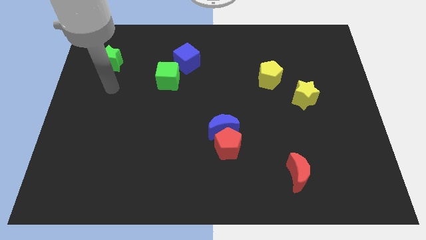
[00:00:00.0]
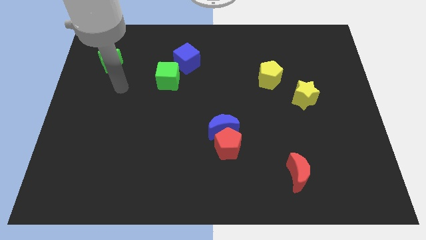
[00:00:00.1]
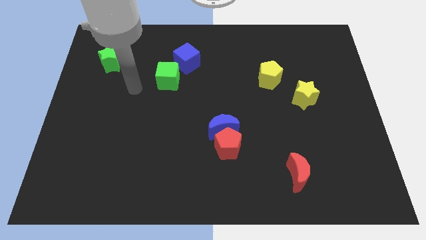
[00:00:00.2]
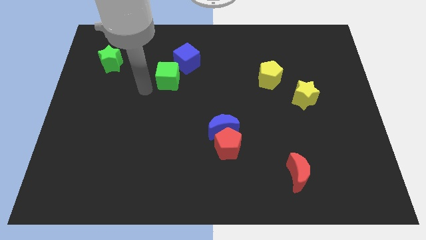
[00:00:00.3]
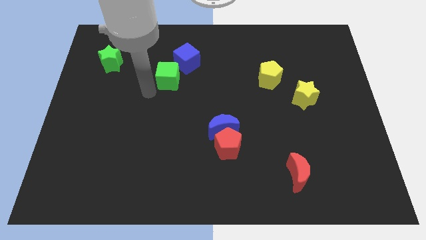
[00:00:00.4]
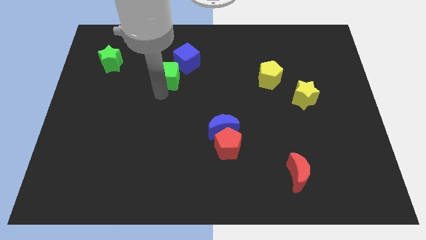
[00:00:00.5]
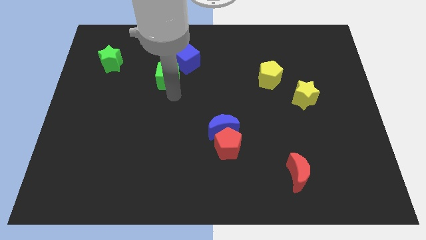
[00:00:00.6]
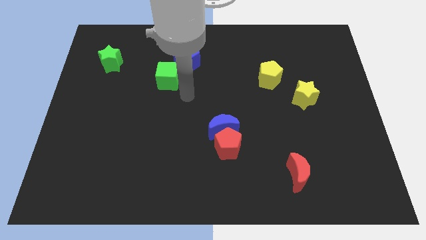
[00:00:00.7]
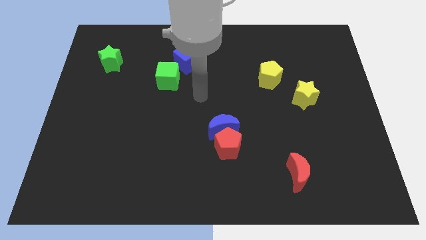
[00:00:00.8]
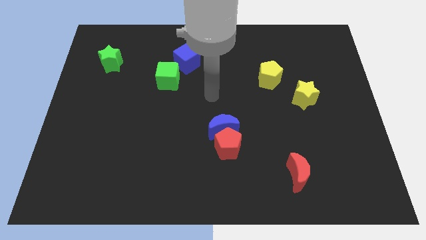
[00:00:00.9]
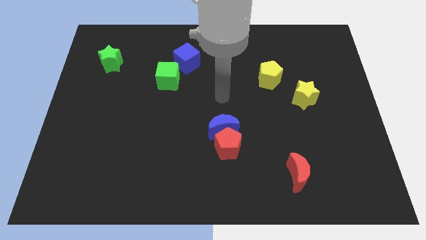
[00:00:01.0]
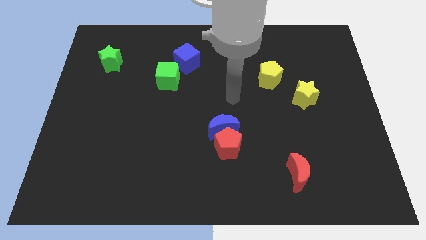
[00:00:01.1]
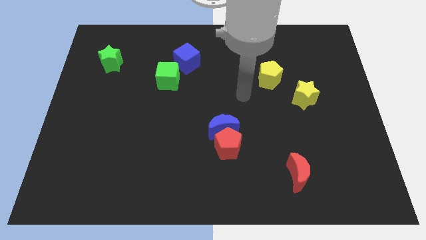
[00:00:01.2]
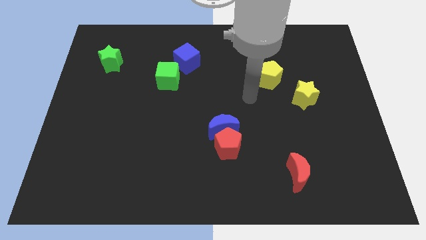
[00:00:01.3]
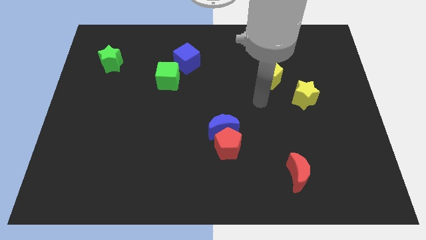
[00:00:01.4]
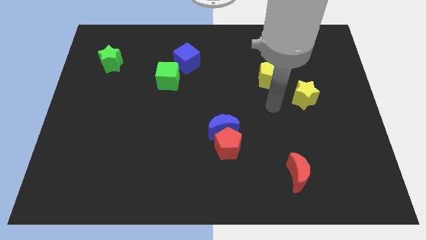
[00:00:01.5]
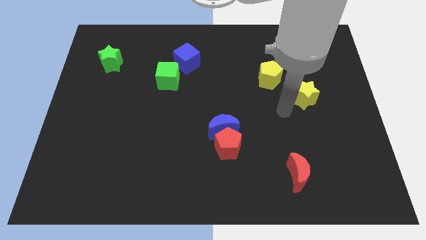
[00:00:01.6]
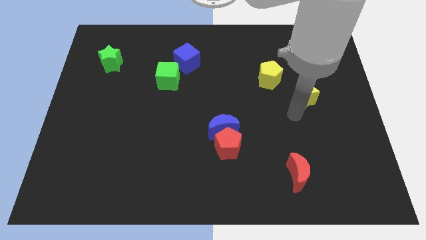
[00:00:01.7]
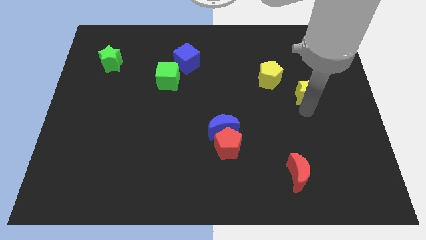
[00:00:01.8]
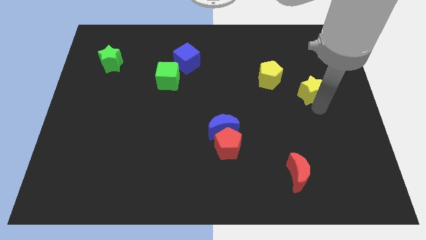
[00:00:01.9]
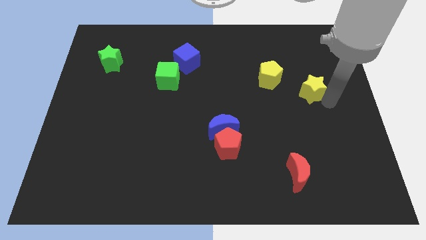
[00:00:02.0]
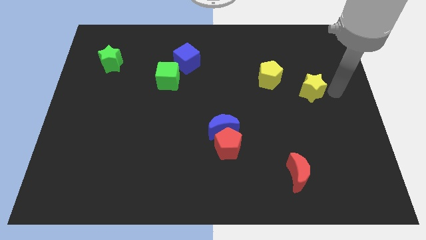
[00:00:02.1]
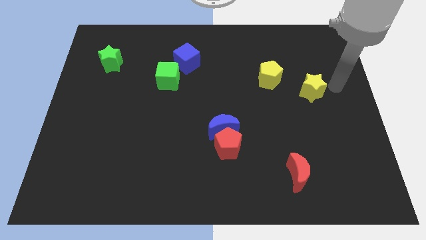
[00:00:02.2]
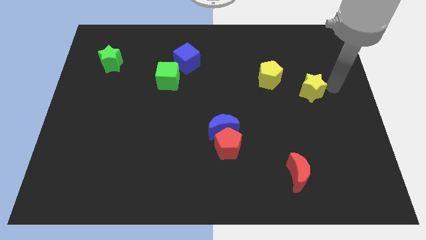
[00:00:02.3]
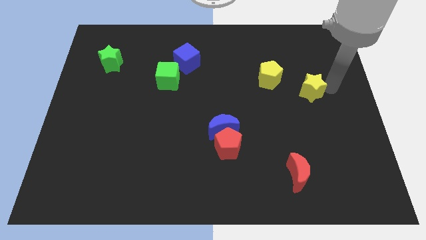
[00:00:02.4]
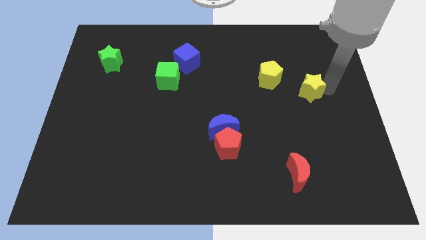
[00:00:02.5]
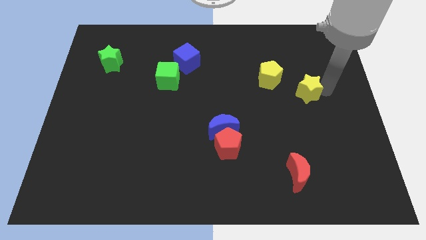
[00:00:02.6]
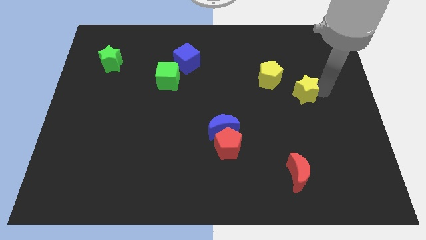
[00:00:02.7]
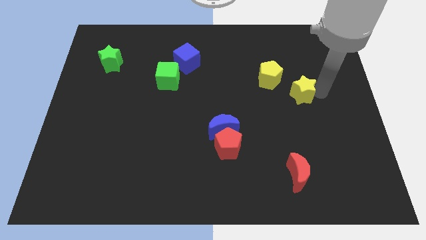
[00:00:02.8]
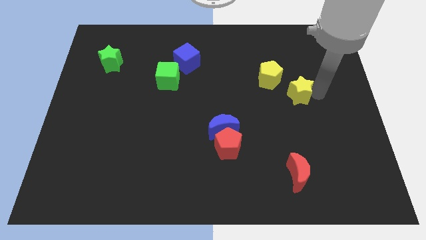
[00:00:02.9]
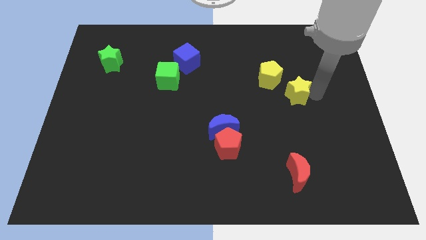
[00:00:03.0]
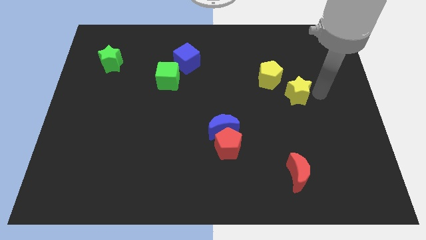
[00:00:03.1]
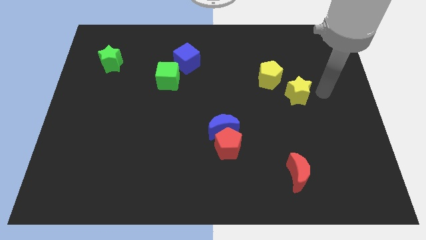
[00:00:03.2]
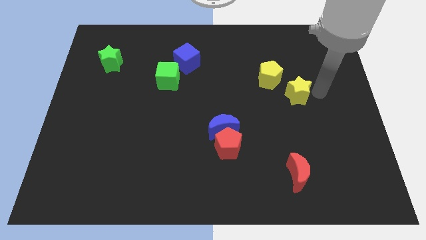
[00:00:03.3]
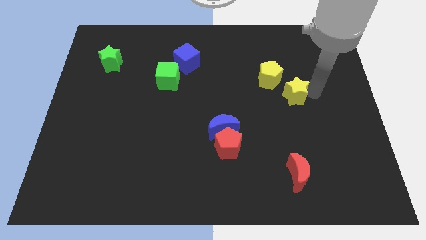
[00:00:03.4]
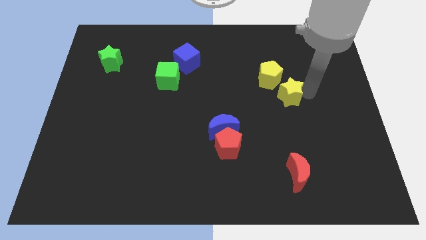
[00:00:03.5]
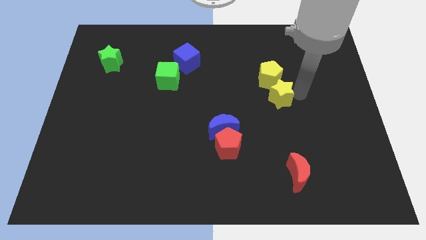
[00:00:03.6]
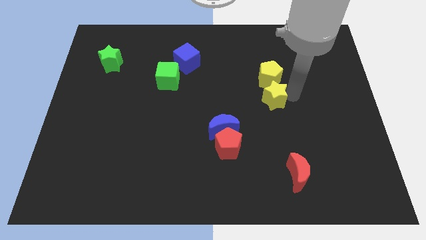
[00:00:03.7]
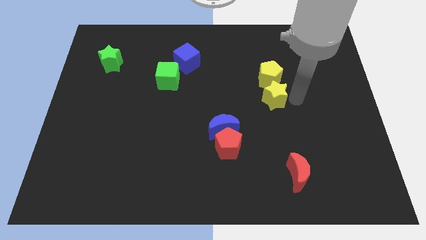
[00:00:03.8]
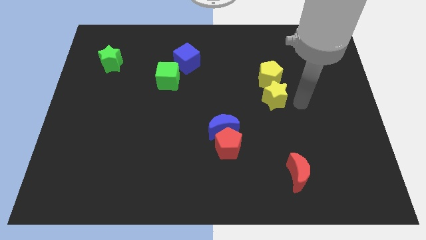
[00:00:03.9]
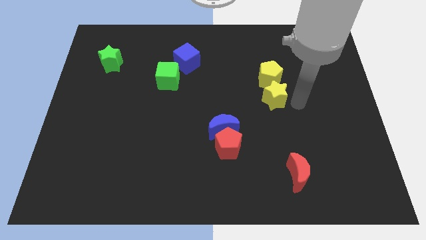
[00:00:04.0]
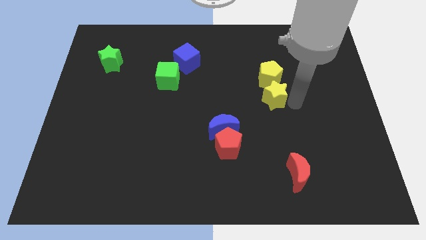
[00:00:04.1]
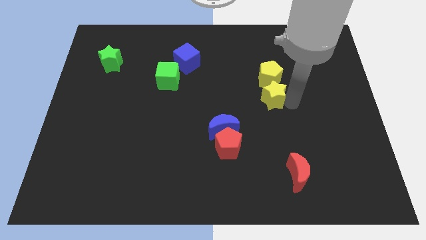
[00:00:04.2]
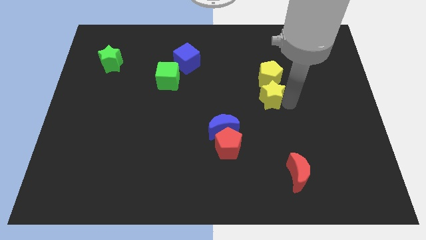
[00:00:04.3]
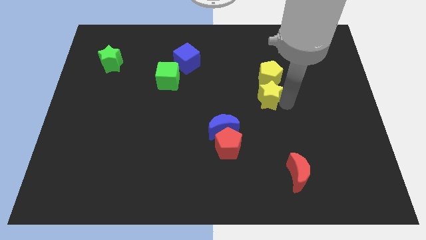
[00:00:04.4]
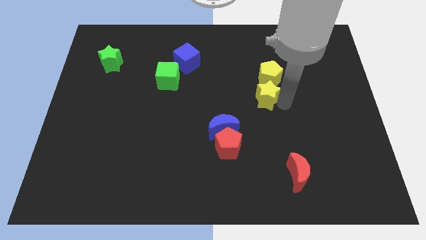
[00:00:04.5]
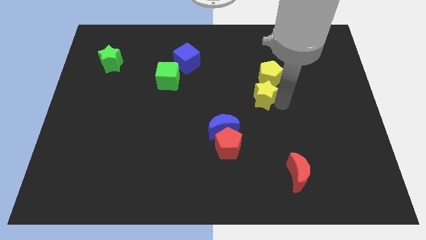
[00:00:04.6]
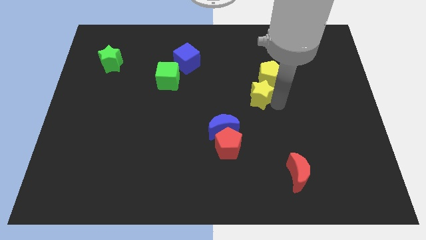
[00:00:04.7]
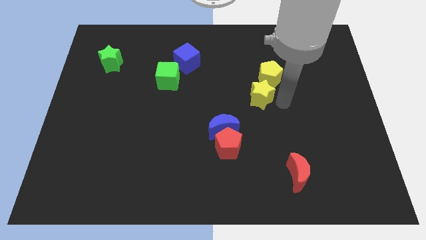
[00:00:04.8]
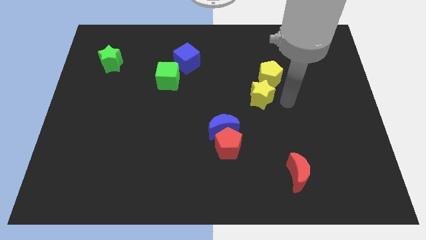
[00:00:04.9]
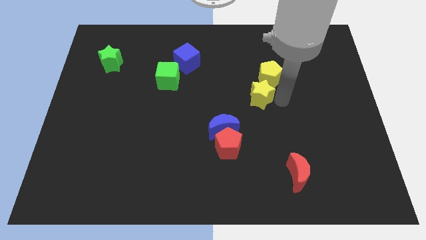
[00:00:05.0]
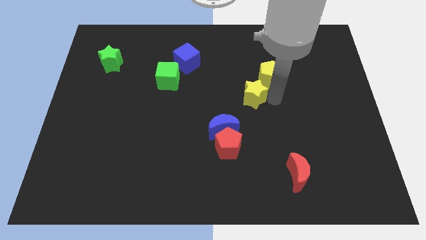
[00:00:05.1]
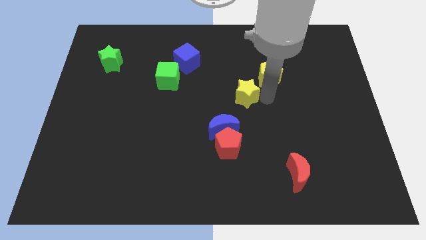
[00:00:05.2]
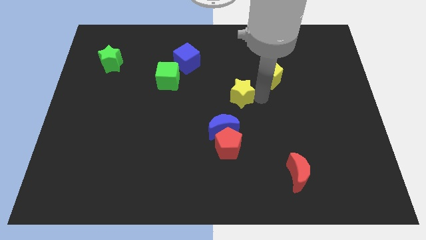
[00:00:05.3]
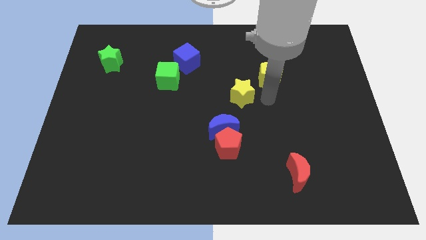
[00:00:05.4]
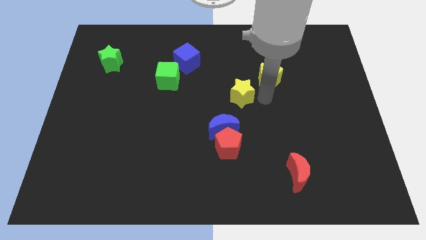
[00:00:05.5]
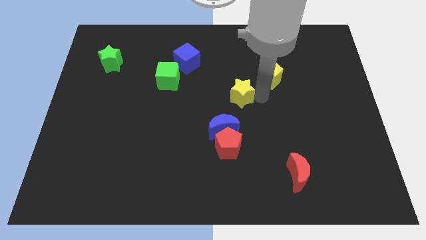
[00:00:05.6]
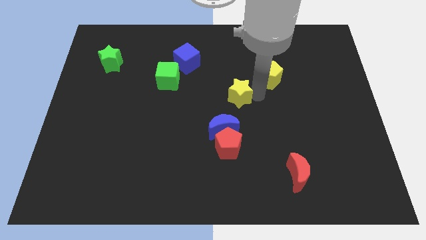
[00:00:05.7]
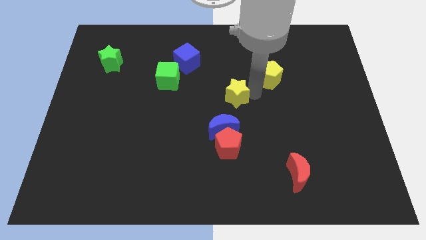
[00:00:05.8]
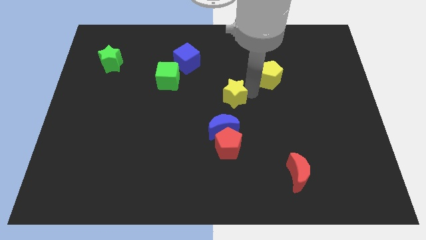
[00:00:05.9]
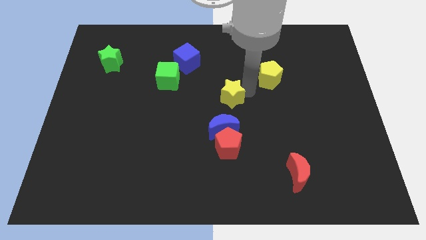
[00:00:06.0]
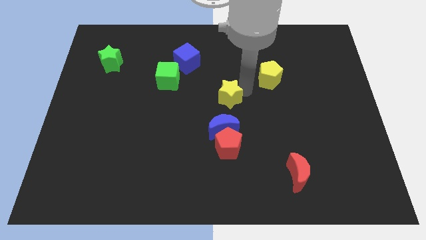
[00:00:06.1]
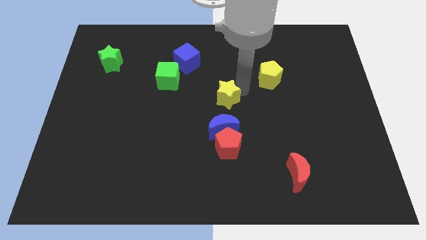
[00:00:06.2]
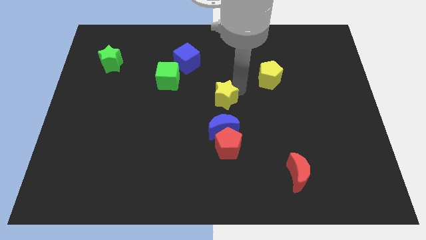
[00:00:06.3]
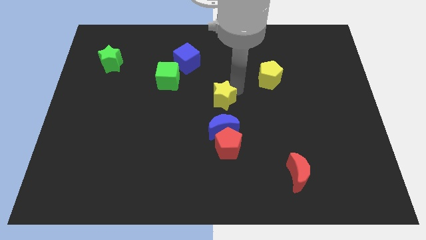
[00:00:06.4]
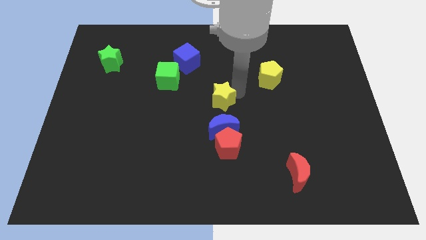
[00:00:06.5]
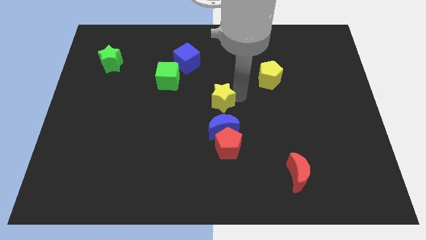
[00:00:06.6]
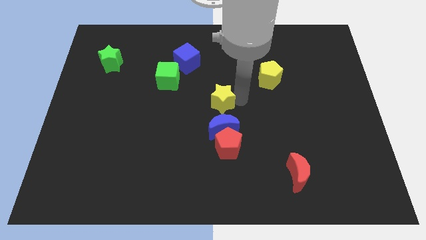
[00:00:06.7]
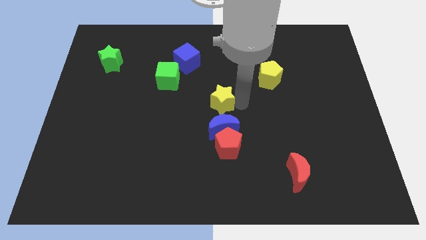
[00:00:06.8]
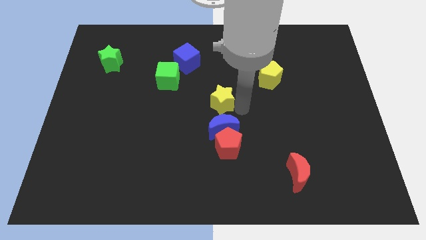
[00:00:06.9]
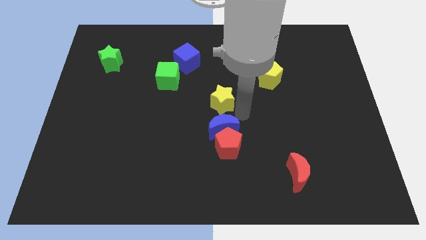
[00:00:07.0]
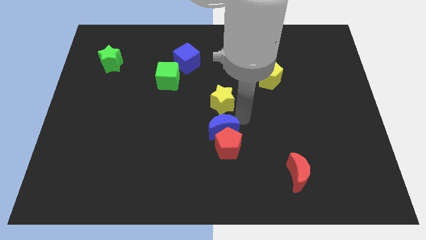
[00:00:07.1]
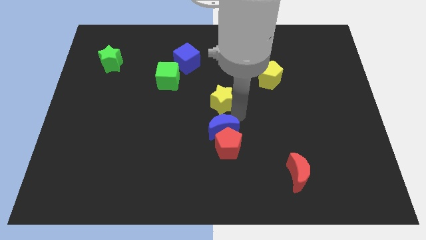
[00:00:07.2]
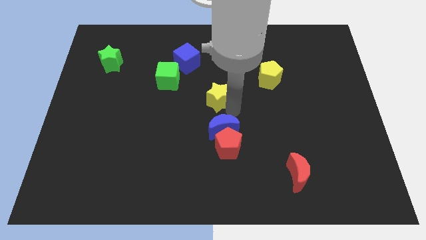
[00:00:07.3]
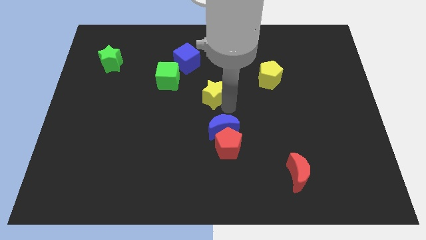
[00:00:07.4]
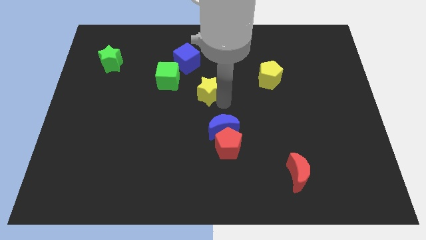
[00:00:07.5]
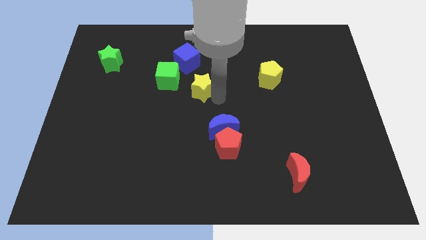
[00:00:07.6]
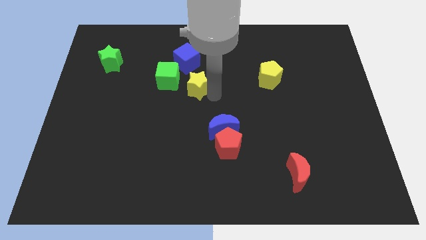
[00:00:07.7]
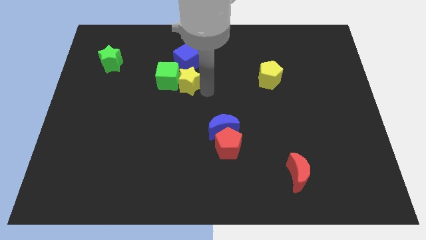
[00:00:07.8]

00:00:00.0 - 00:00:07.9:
slide the yellow star next to the green cube
